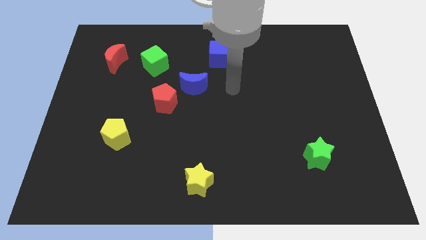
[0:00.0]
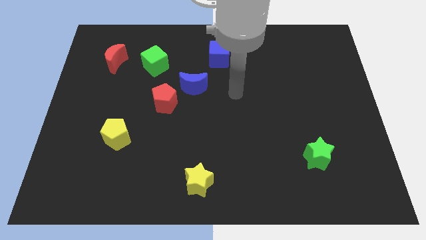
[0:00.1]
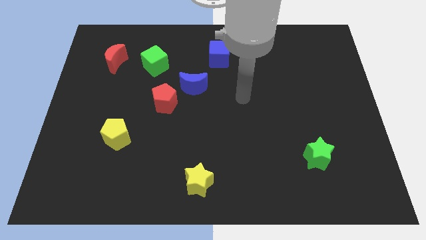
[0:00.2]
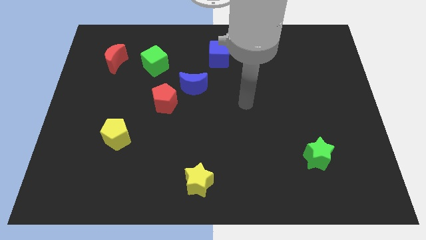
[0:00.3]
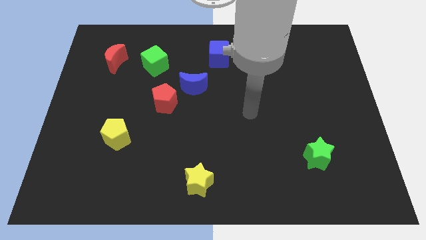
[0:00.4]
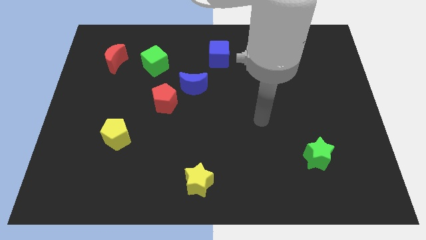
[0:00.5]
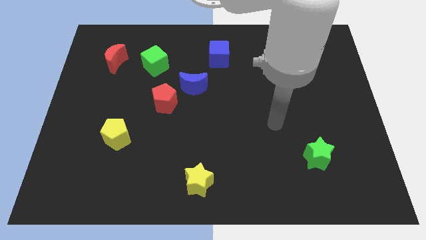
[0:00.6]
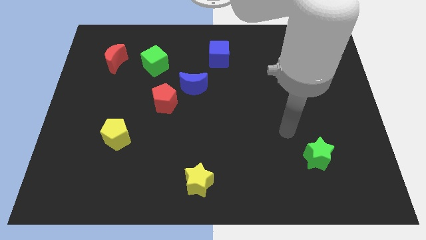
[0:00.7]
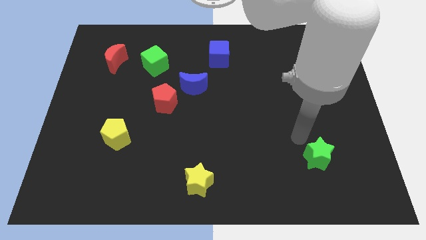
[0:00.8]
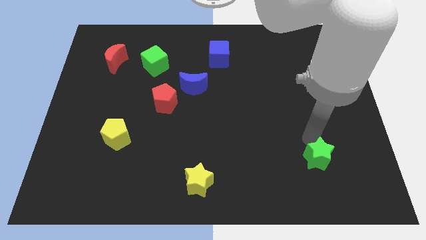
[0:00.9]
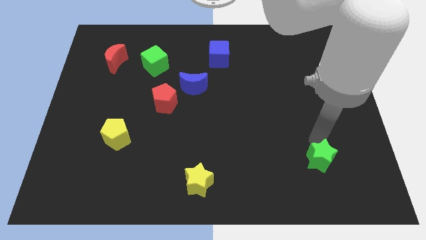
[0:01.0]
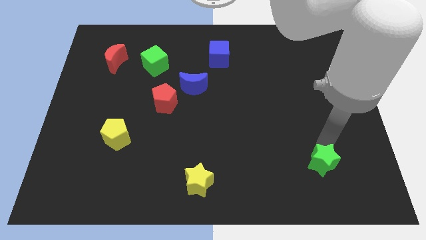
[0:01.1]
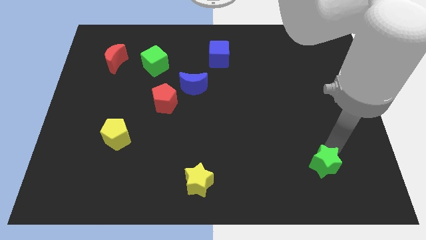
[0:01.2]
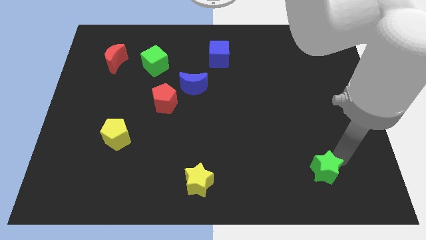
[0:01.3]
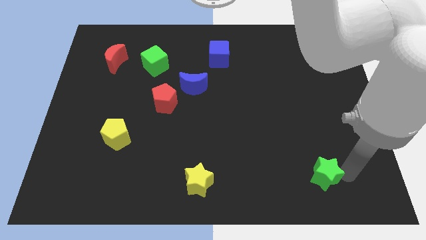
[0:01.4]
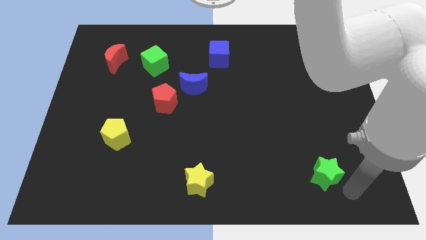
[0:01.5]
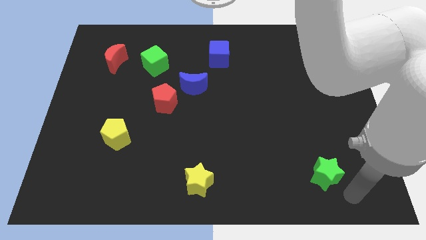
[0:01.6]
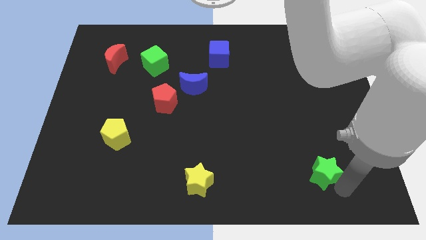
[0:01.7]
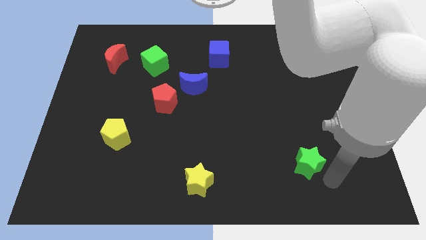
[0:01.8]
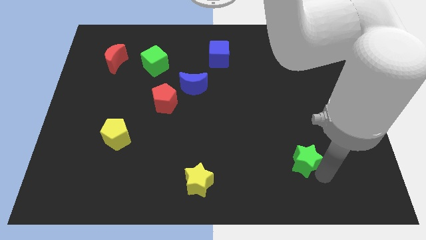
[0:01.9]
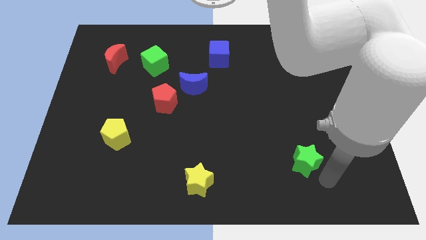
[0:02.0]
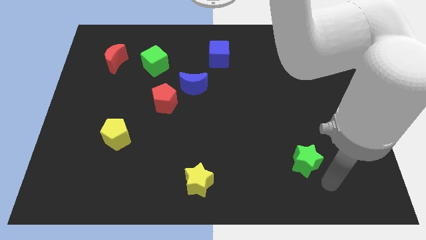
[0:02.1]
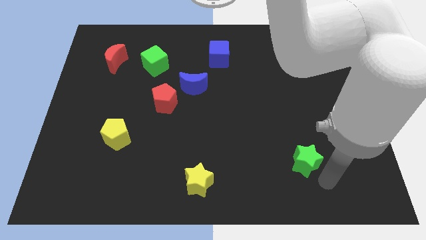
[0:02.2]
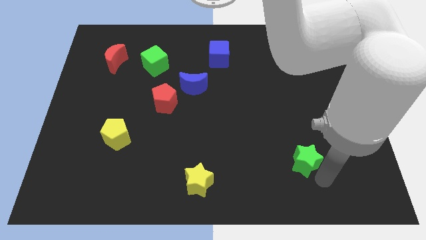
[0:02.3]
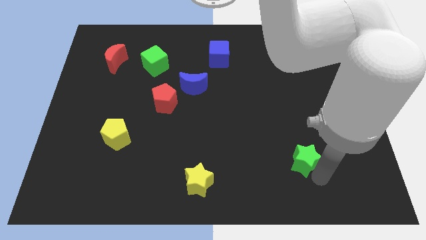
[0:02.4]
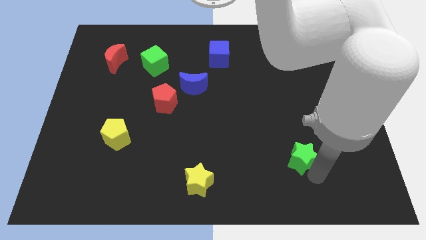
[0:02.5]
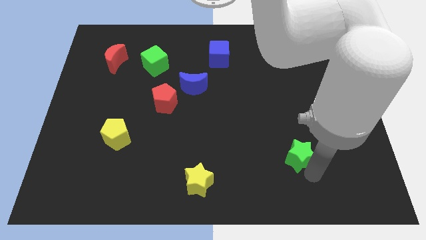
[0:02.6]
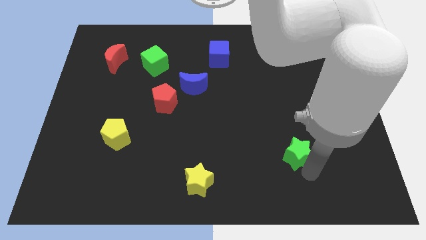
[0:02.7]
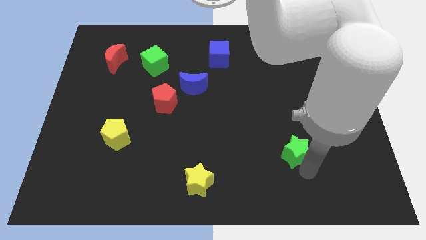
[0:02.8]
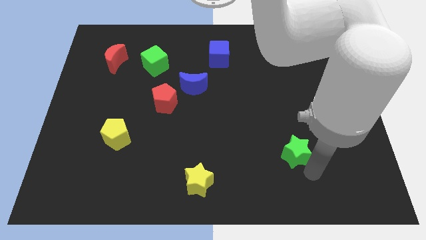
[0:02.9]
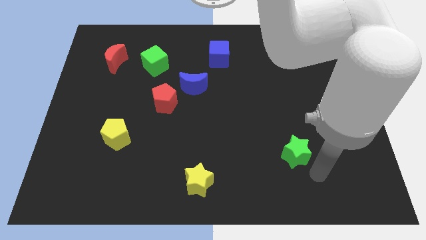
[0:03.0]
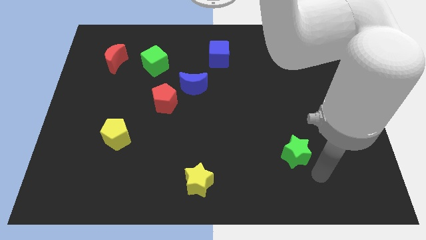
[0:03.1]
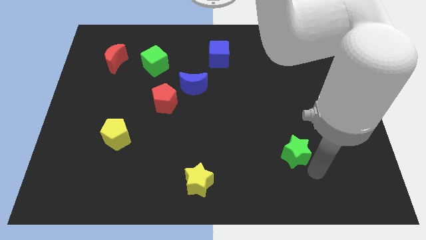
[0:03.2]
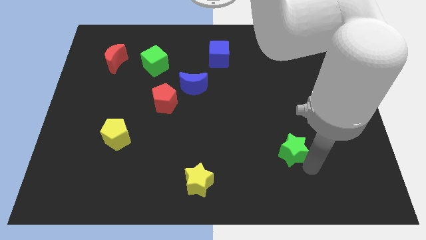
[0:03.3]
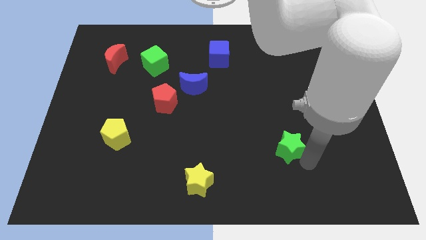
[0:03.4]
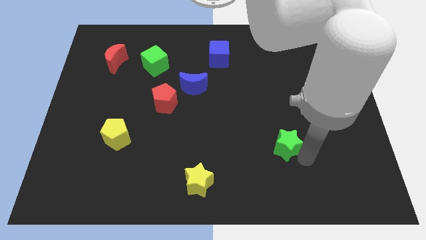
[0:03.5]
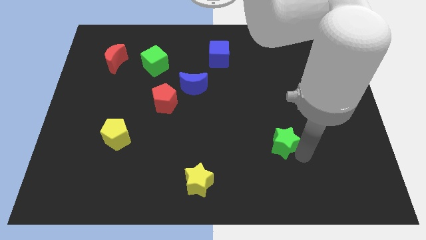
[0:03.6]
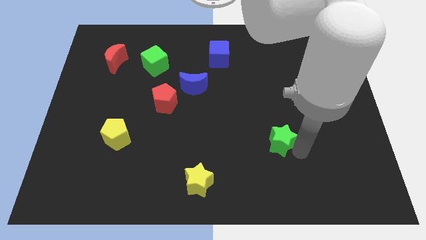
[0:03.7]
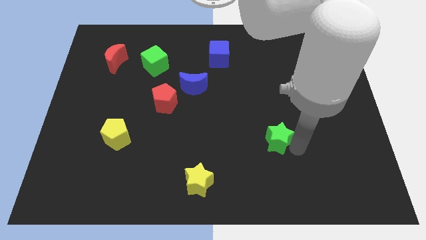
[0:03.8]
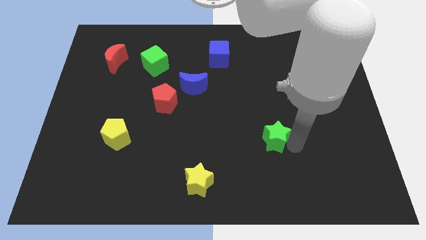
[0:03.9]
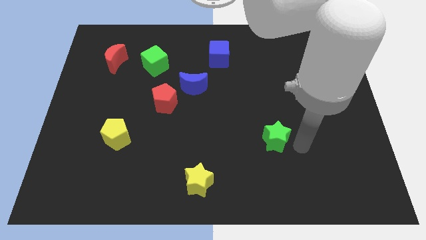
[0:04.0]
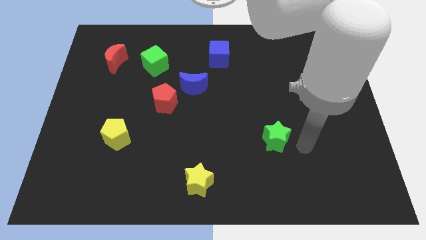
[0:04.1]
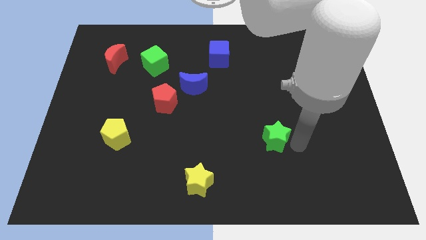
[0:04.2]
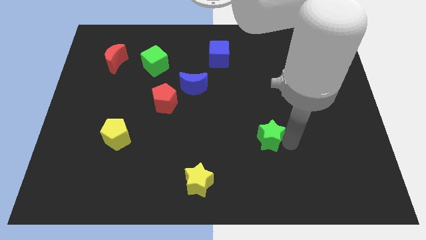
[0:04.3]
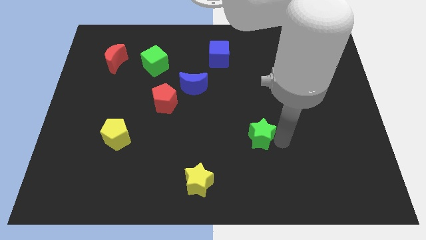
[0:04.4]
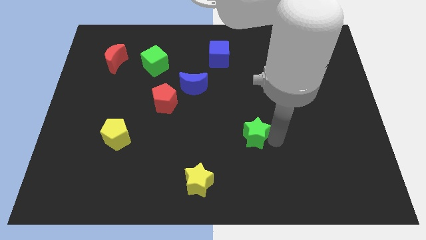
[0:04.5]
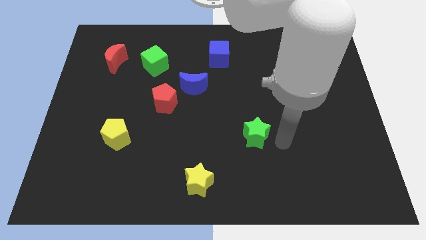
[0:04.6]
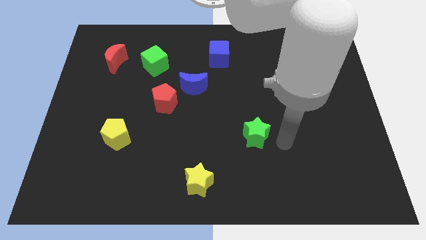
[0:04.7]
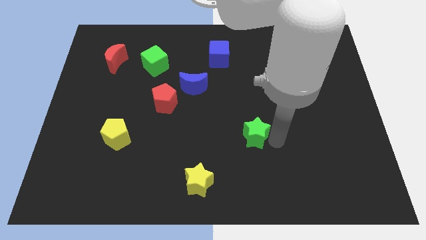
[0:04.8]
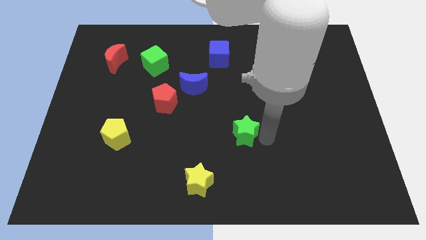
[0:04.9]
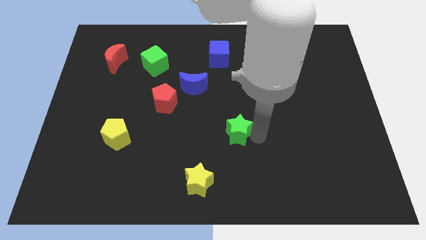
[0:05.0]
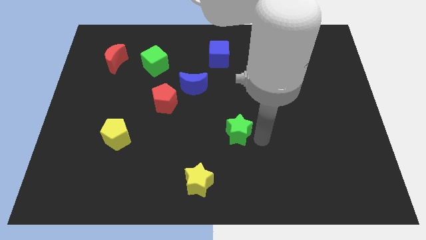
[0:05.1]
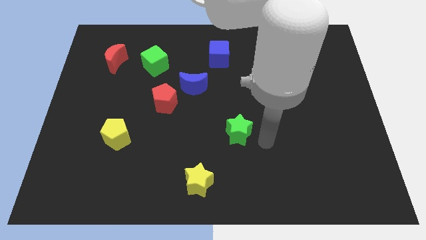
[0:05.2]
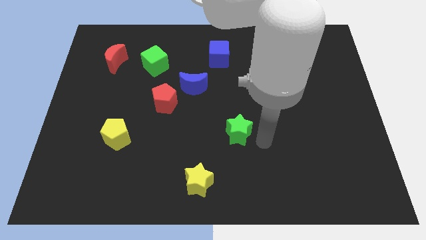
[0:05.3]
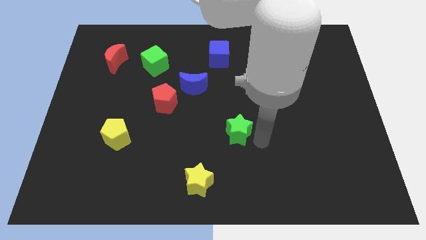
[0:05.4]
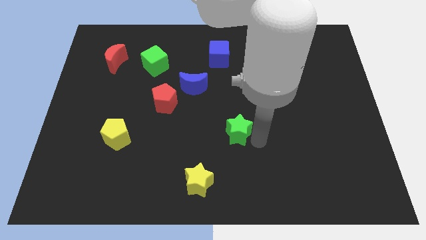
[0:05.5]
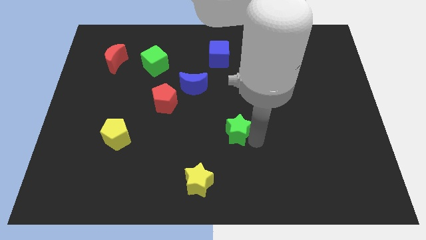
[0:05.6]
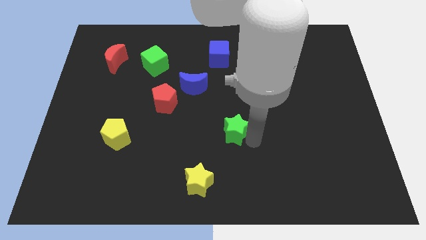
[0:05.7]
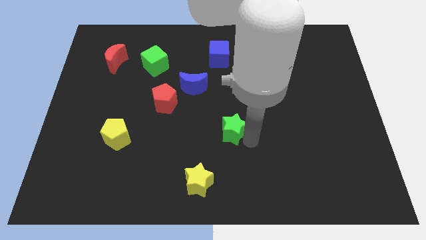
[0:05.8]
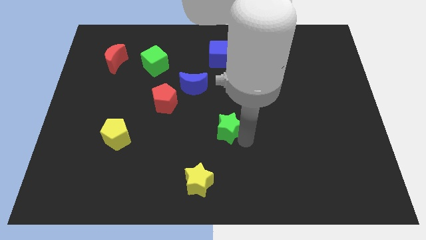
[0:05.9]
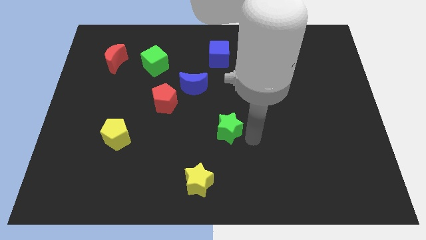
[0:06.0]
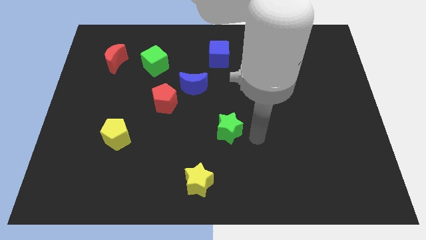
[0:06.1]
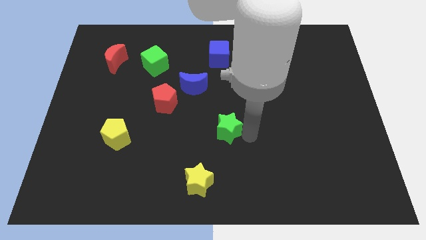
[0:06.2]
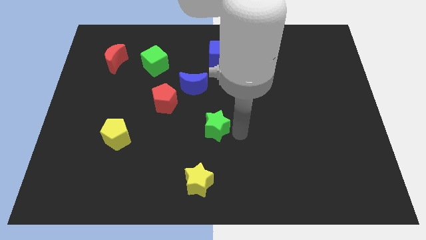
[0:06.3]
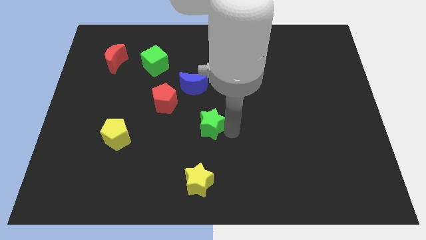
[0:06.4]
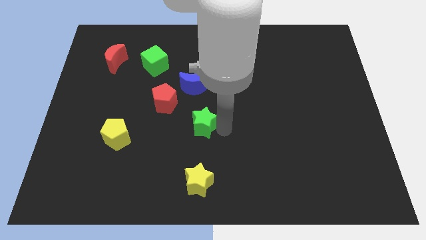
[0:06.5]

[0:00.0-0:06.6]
move the green star diagonally down and to the right of the red pentagon

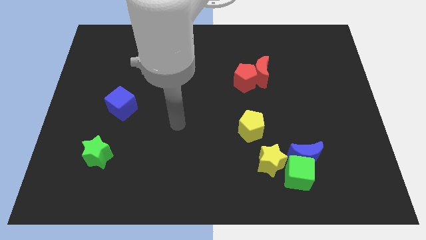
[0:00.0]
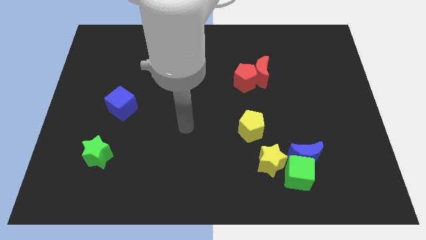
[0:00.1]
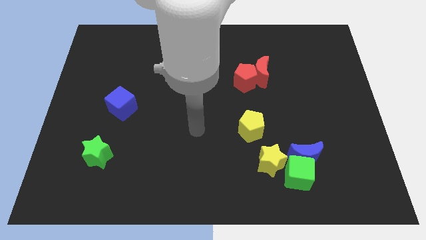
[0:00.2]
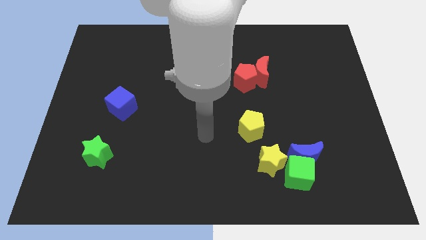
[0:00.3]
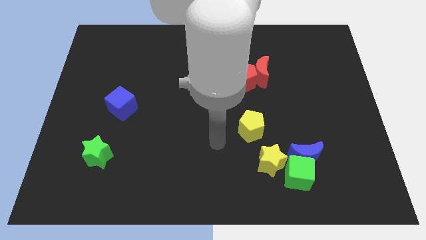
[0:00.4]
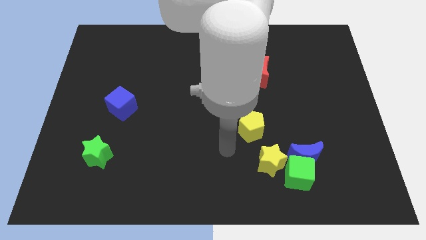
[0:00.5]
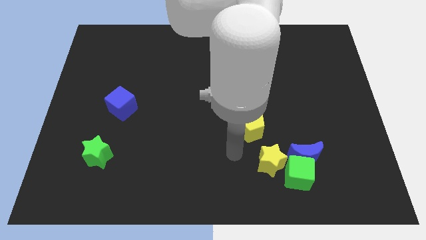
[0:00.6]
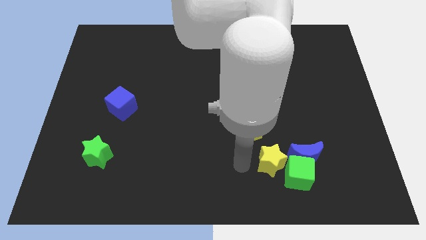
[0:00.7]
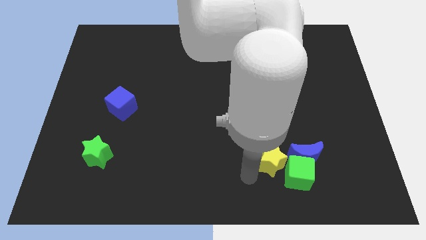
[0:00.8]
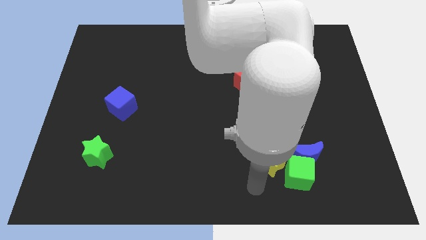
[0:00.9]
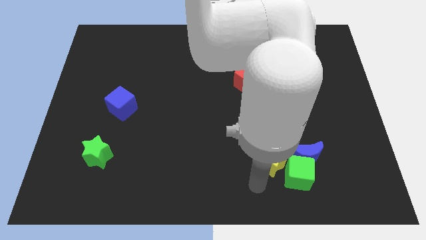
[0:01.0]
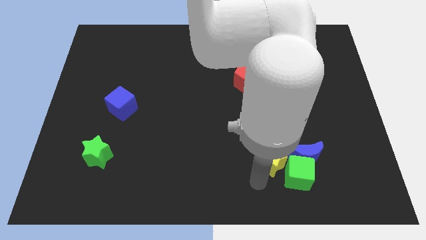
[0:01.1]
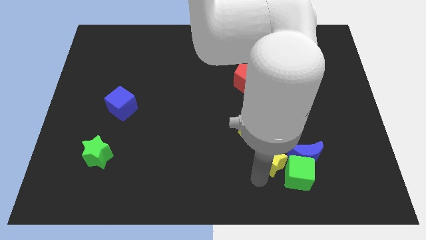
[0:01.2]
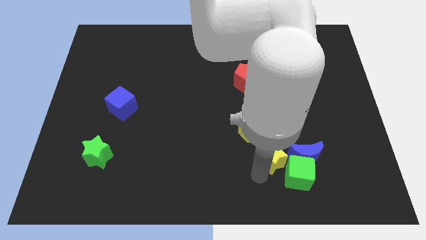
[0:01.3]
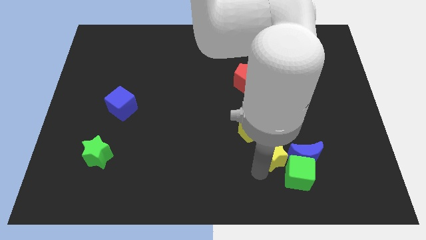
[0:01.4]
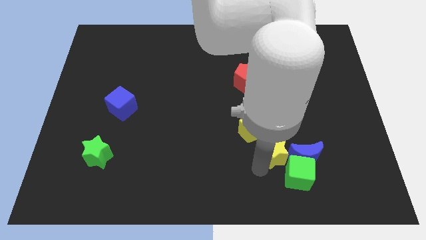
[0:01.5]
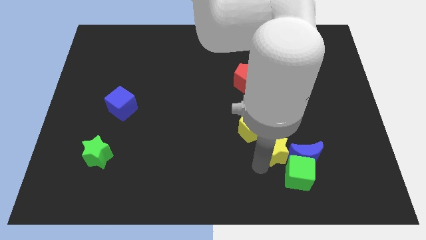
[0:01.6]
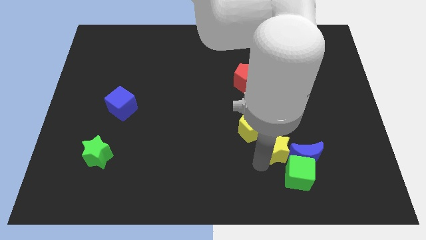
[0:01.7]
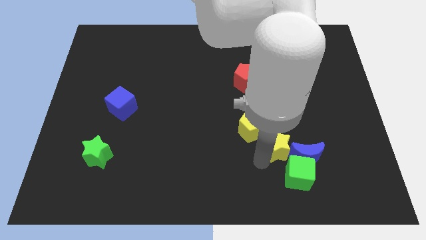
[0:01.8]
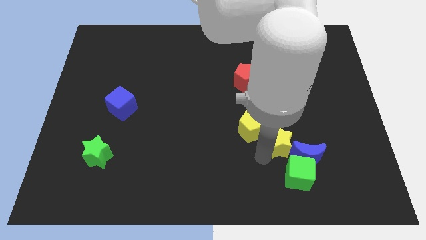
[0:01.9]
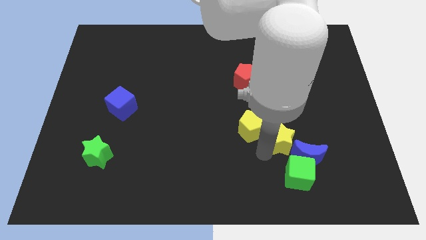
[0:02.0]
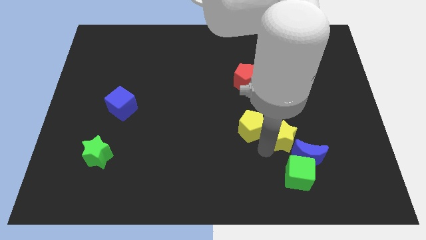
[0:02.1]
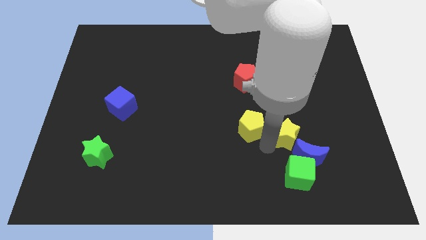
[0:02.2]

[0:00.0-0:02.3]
slide the yellow star to the top of the blue moon
